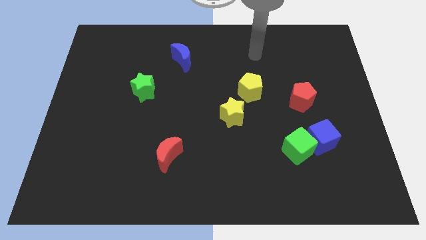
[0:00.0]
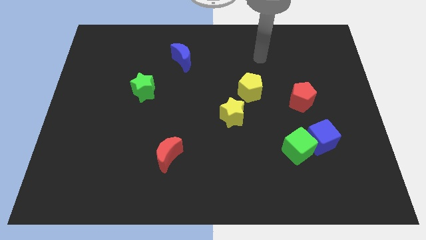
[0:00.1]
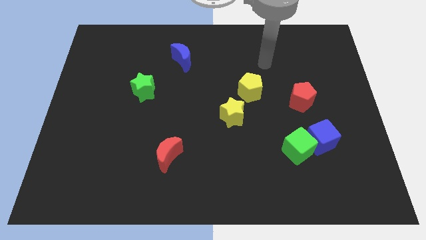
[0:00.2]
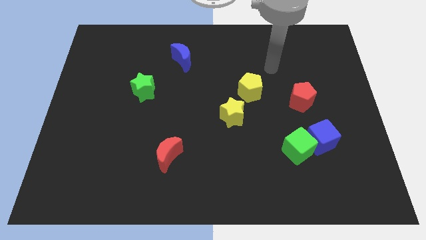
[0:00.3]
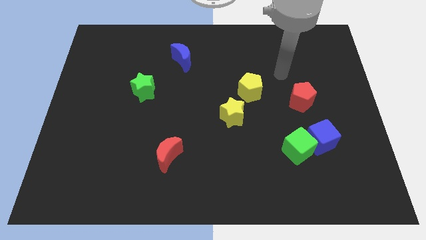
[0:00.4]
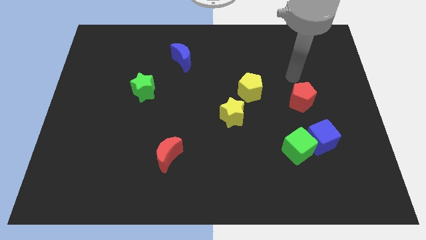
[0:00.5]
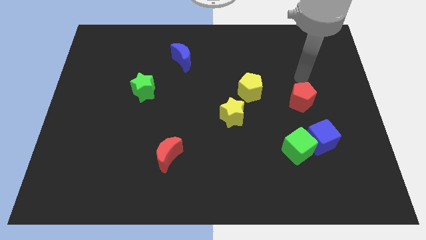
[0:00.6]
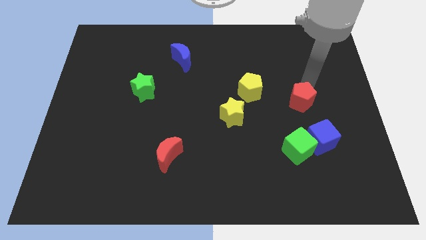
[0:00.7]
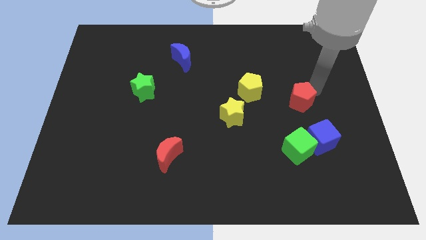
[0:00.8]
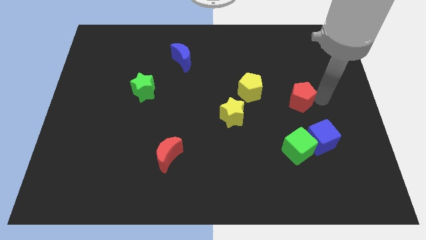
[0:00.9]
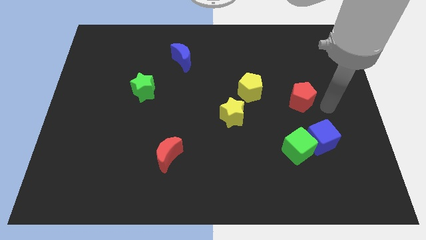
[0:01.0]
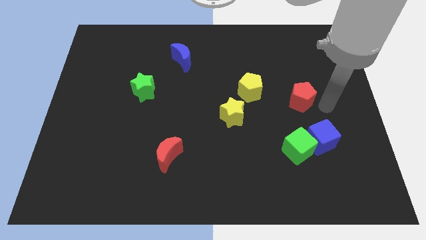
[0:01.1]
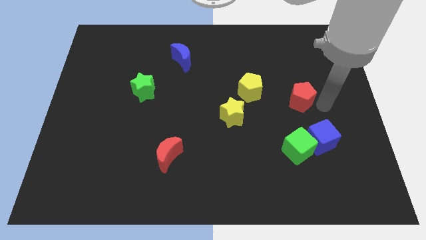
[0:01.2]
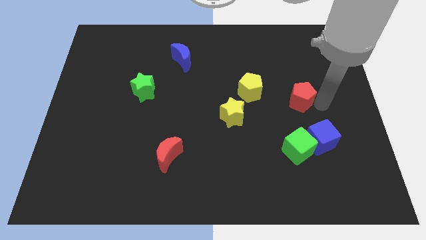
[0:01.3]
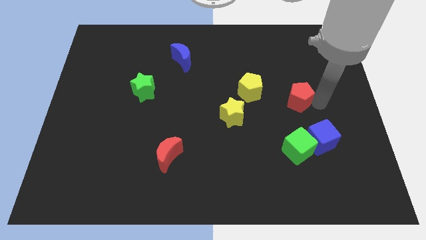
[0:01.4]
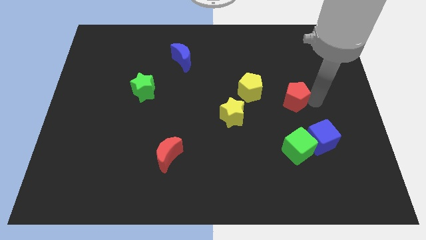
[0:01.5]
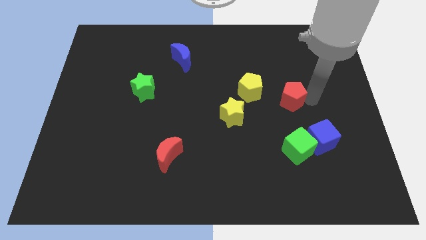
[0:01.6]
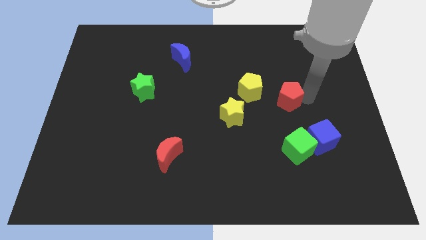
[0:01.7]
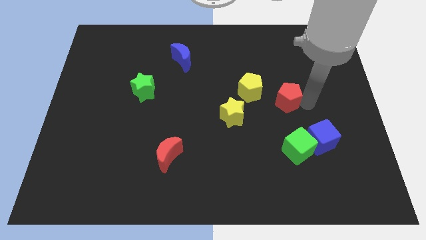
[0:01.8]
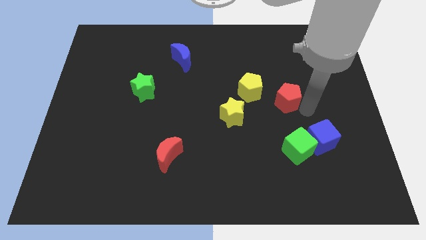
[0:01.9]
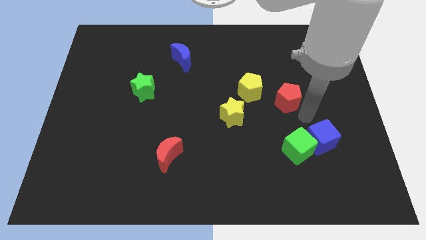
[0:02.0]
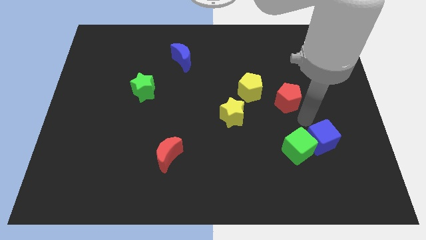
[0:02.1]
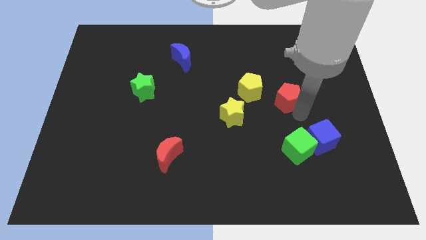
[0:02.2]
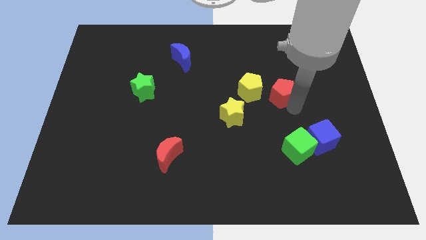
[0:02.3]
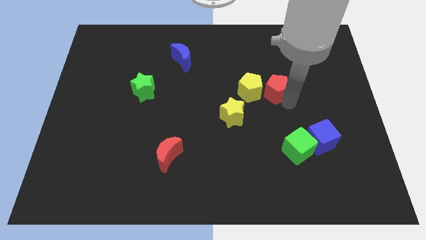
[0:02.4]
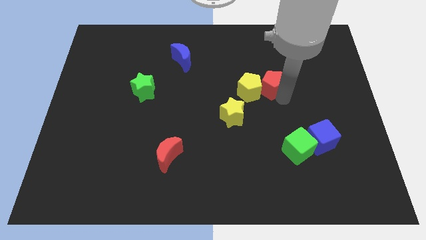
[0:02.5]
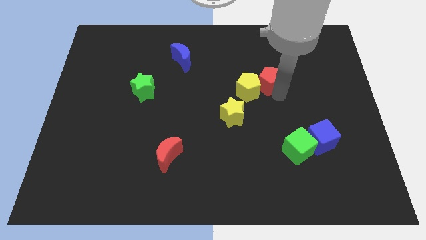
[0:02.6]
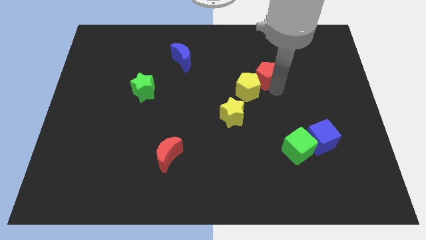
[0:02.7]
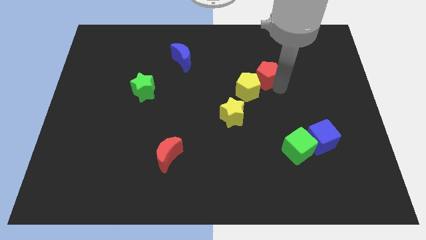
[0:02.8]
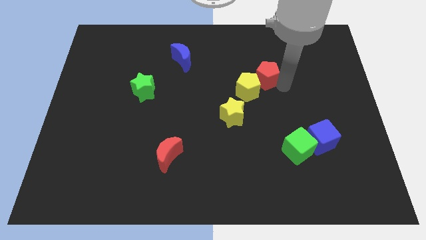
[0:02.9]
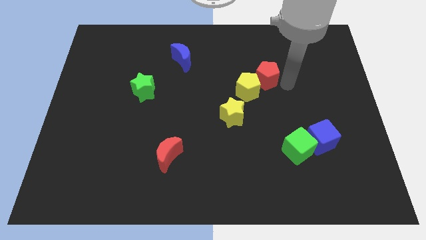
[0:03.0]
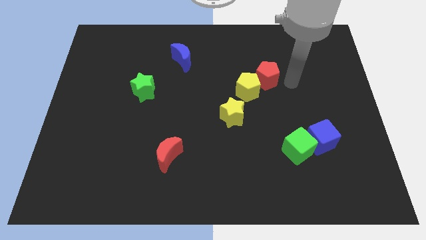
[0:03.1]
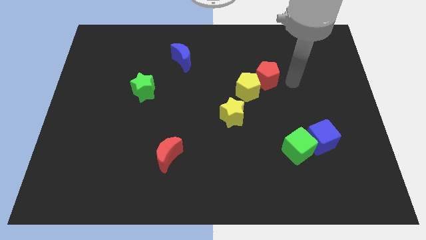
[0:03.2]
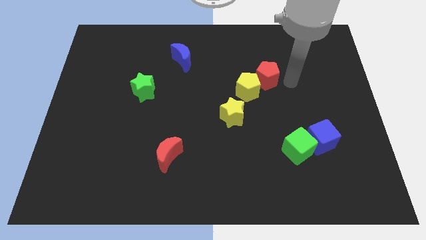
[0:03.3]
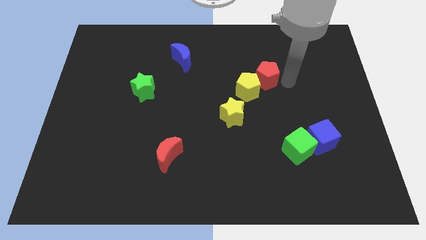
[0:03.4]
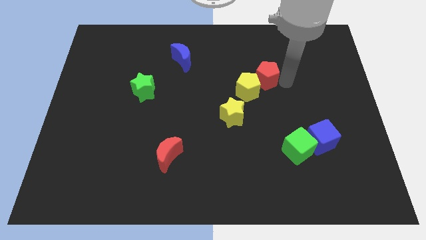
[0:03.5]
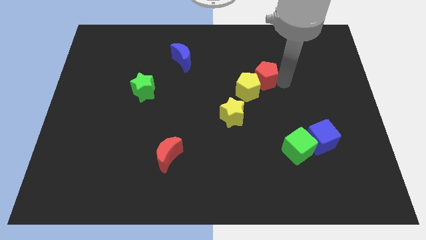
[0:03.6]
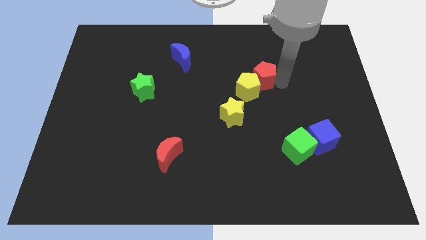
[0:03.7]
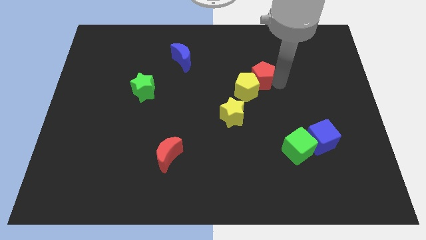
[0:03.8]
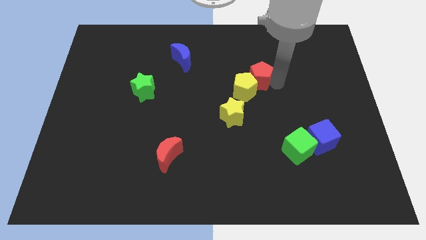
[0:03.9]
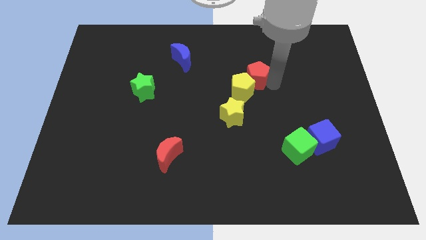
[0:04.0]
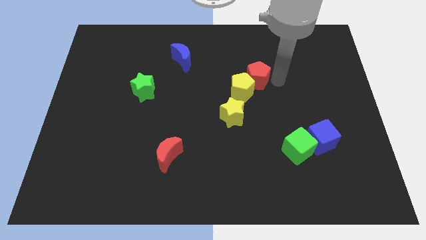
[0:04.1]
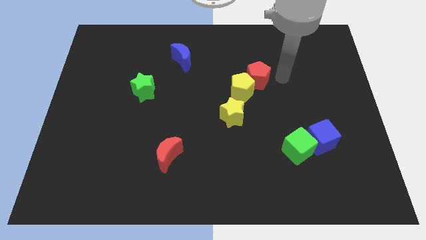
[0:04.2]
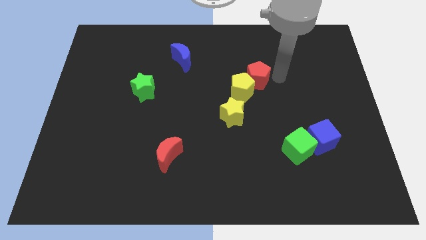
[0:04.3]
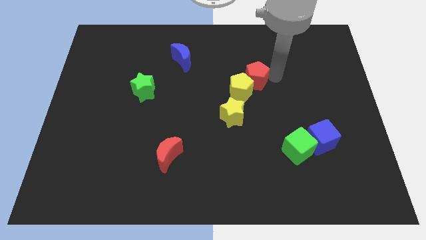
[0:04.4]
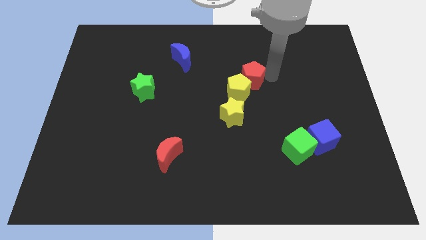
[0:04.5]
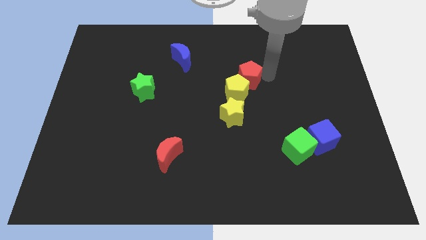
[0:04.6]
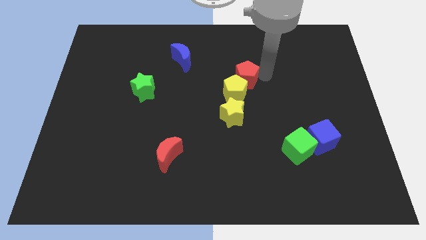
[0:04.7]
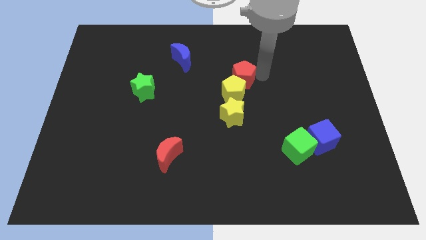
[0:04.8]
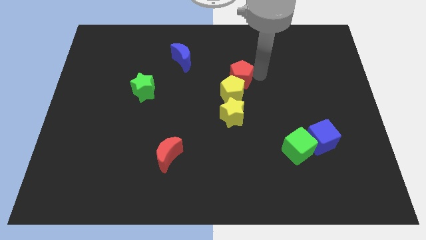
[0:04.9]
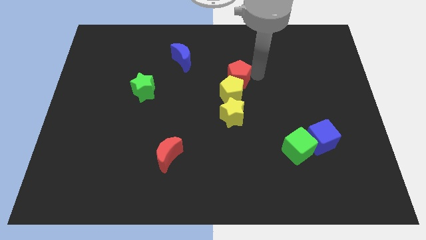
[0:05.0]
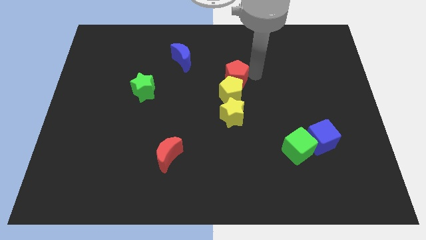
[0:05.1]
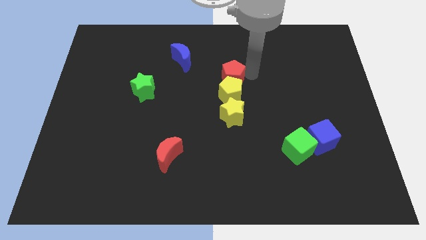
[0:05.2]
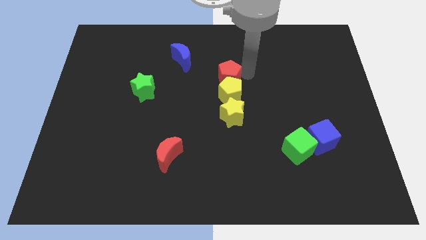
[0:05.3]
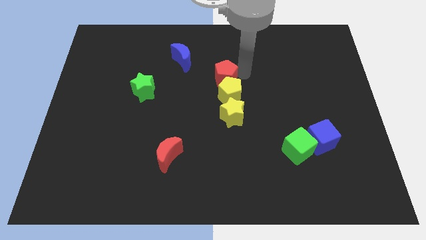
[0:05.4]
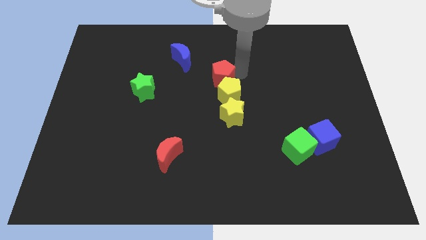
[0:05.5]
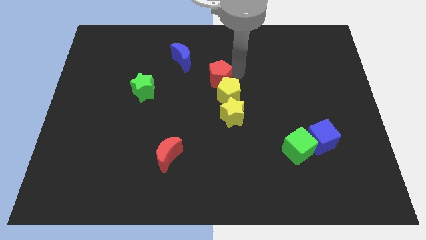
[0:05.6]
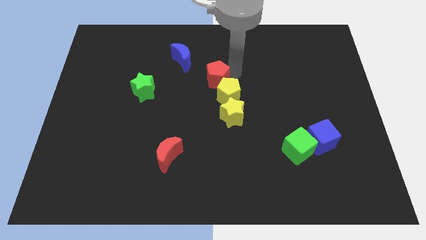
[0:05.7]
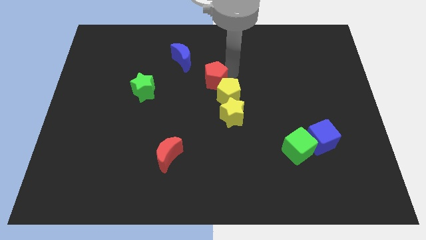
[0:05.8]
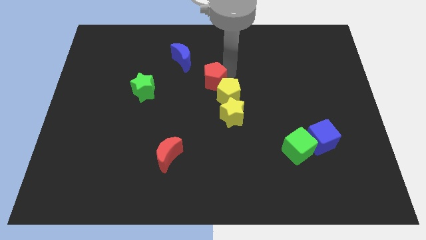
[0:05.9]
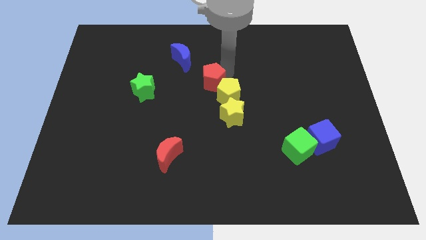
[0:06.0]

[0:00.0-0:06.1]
move the red pentagon to the left

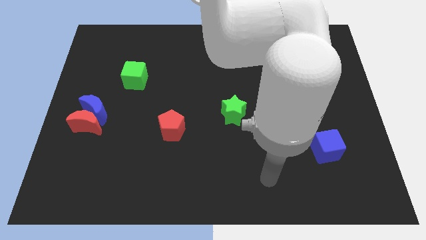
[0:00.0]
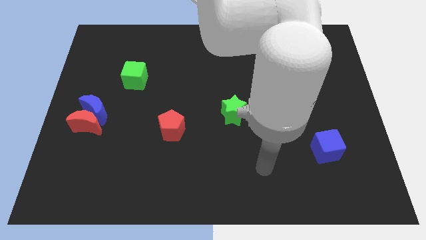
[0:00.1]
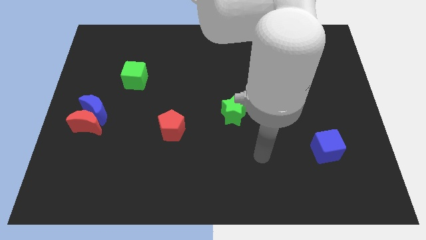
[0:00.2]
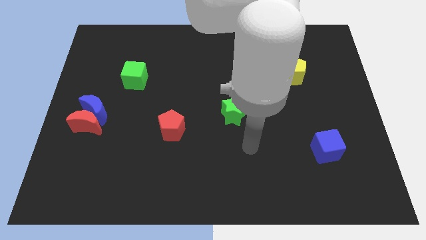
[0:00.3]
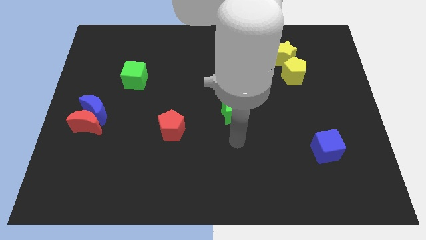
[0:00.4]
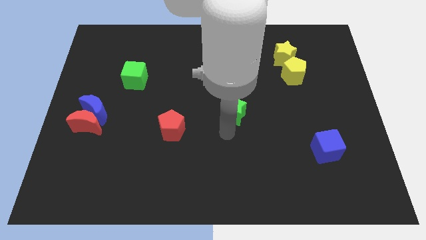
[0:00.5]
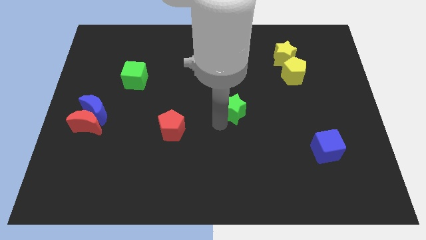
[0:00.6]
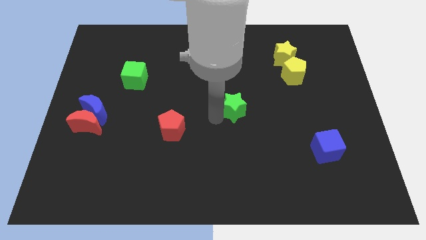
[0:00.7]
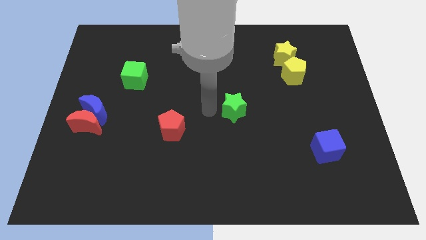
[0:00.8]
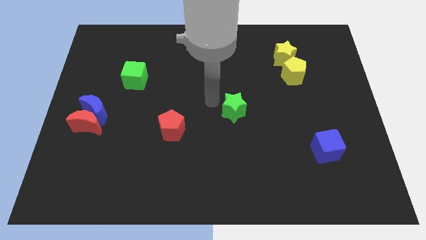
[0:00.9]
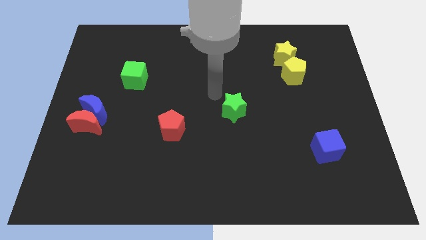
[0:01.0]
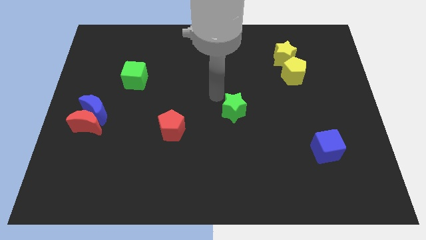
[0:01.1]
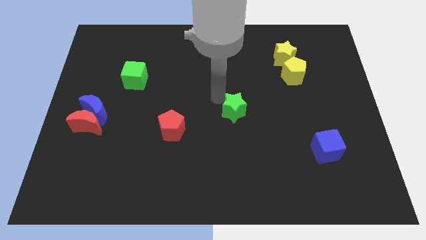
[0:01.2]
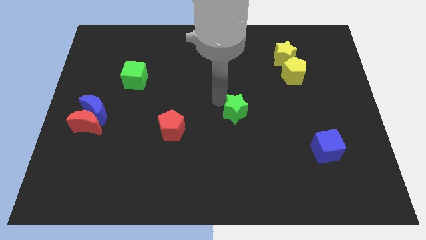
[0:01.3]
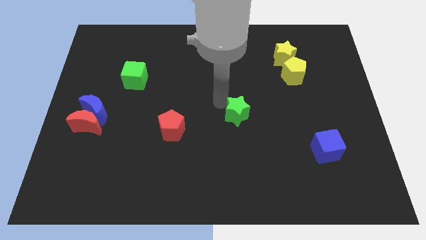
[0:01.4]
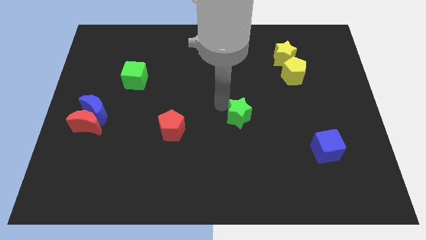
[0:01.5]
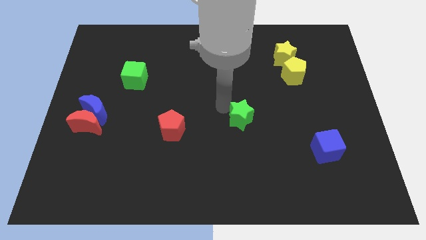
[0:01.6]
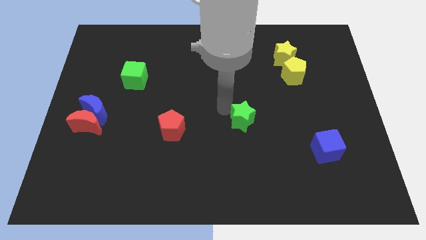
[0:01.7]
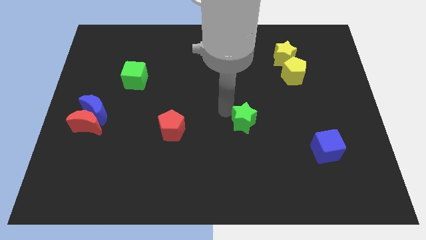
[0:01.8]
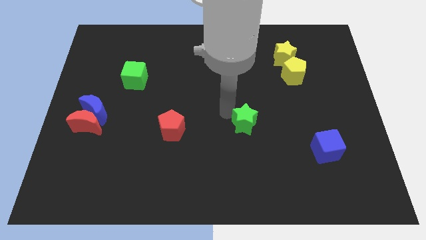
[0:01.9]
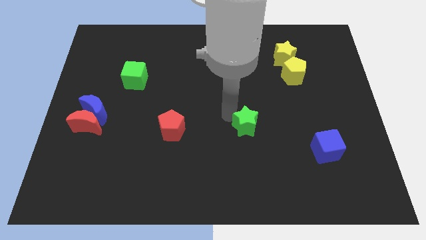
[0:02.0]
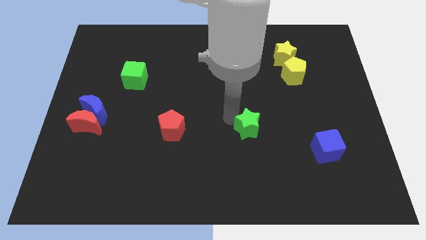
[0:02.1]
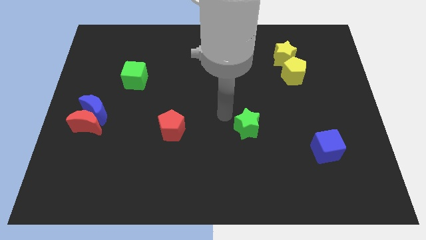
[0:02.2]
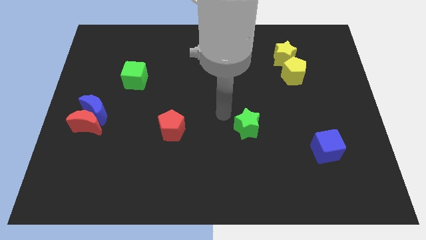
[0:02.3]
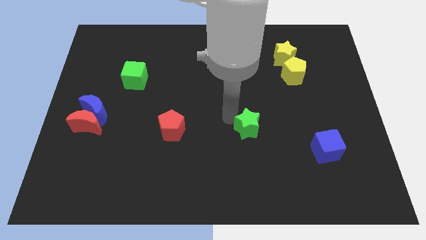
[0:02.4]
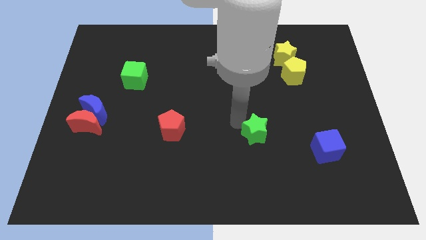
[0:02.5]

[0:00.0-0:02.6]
slightly slide the green star down and then to the right
